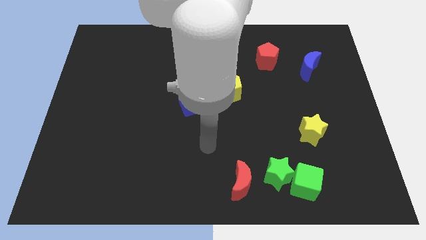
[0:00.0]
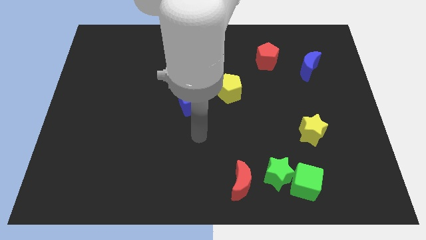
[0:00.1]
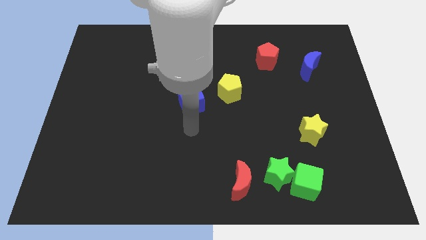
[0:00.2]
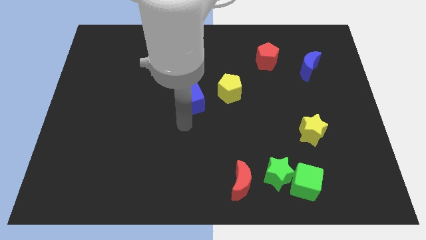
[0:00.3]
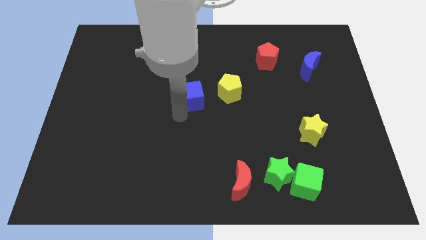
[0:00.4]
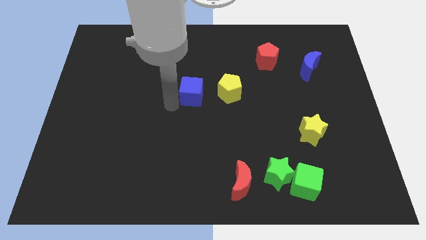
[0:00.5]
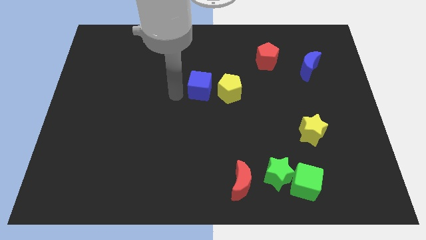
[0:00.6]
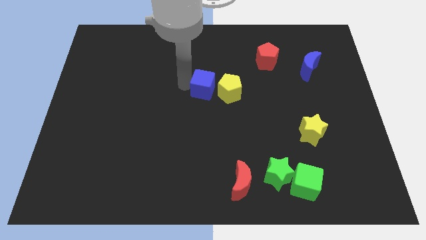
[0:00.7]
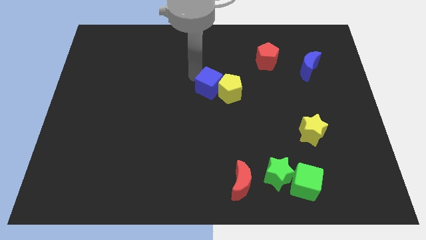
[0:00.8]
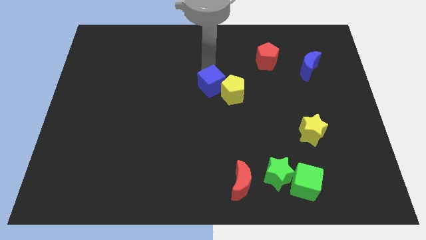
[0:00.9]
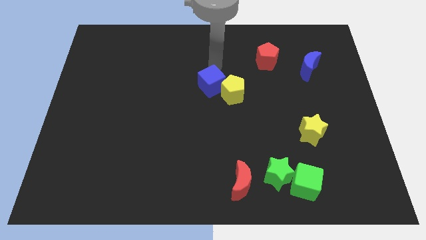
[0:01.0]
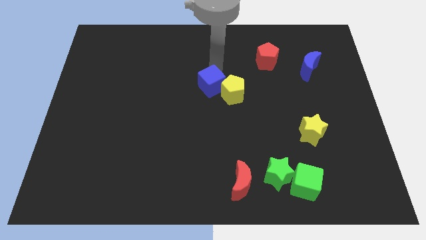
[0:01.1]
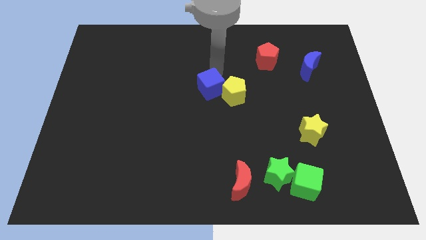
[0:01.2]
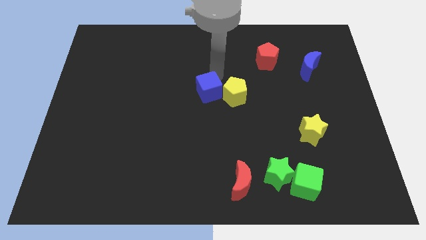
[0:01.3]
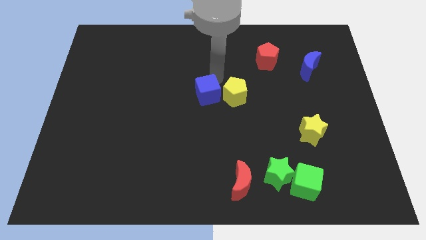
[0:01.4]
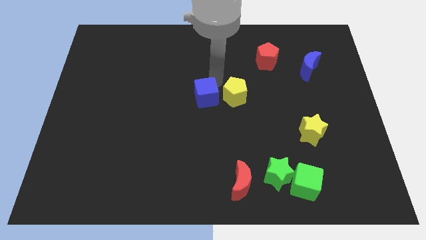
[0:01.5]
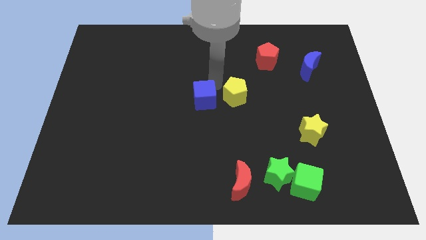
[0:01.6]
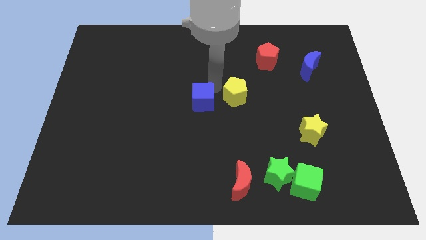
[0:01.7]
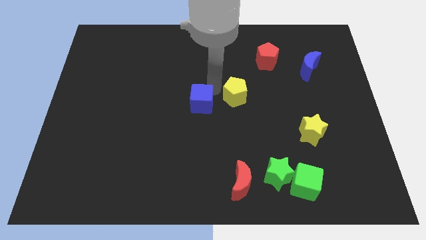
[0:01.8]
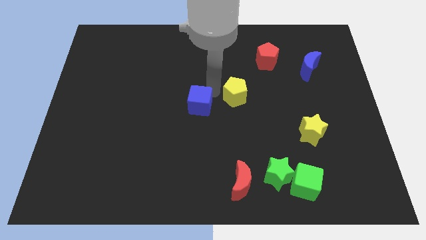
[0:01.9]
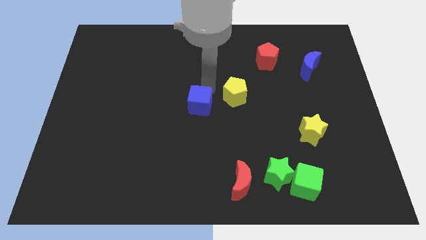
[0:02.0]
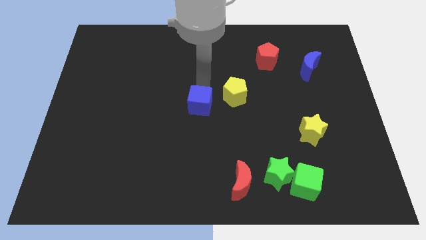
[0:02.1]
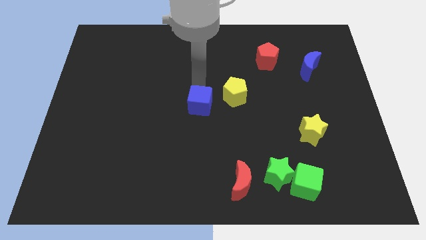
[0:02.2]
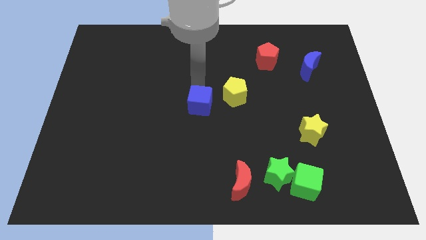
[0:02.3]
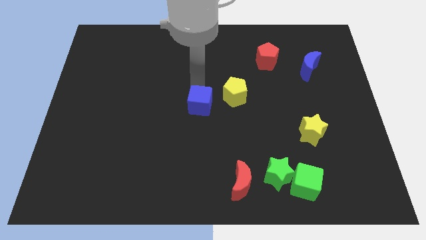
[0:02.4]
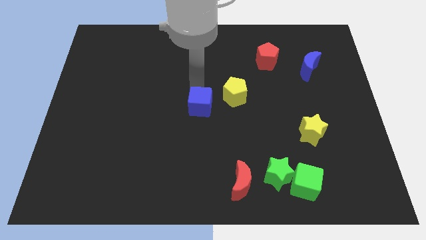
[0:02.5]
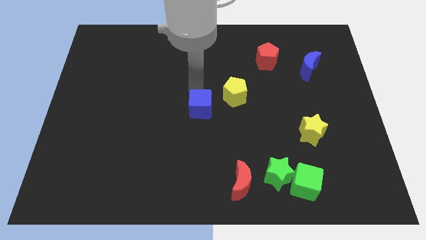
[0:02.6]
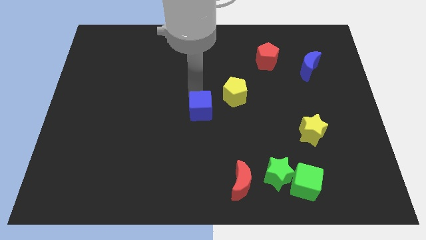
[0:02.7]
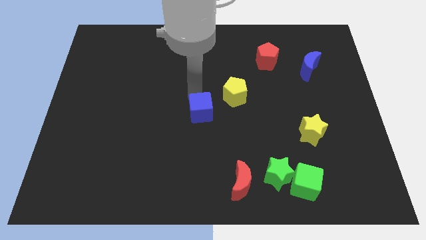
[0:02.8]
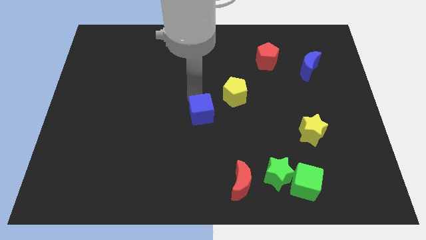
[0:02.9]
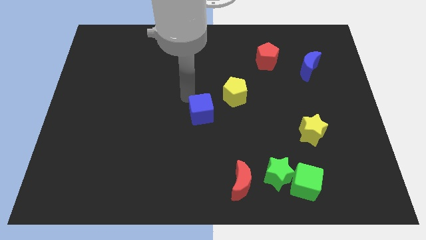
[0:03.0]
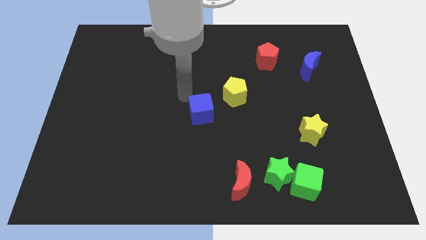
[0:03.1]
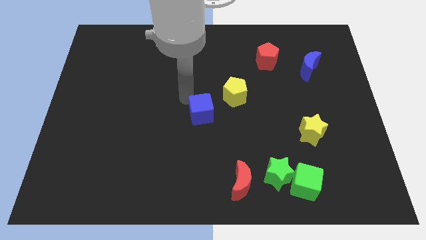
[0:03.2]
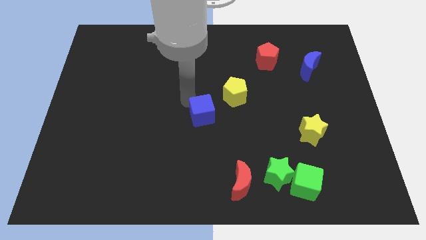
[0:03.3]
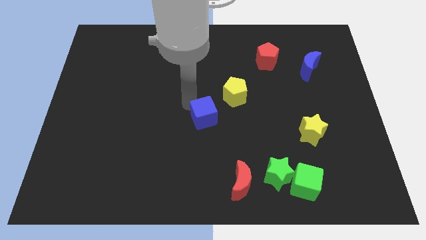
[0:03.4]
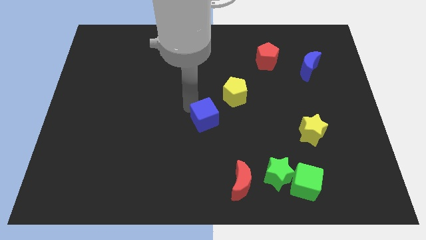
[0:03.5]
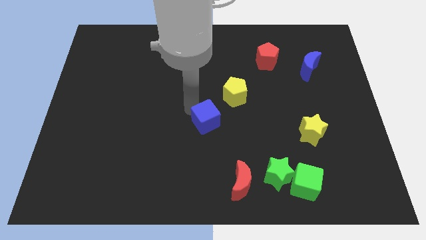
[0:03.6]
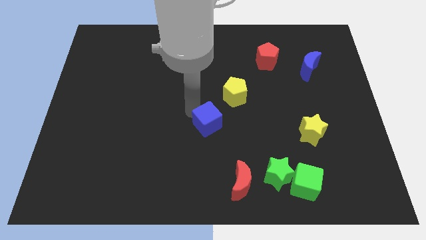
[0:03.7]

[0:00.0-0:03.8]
push the blue cube a little down and to the right diagonally

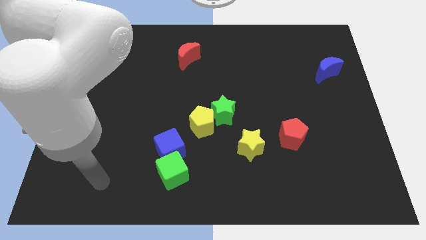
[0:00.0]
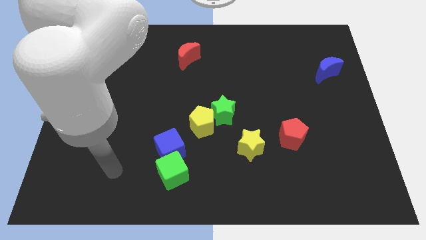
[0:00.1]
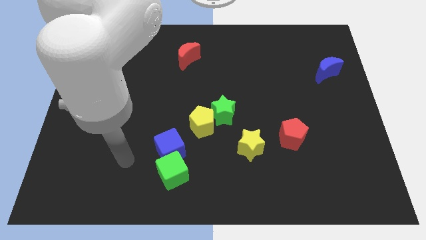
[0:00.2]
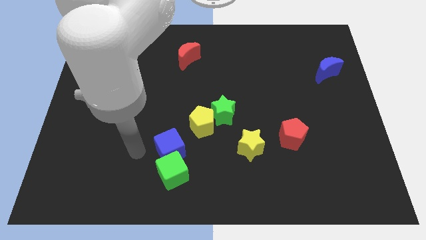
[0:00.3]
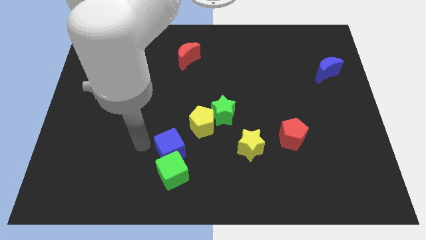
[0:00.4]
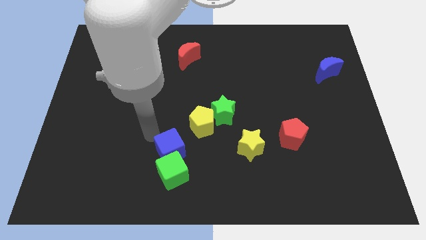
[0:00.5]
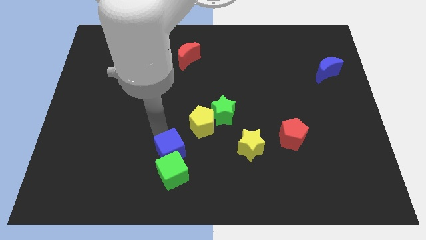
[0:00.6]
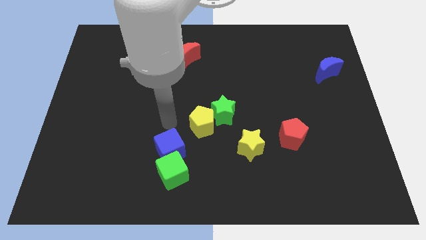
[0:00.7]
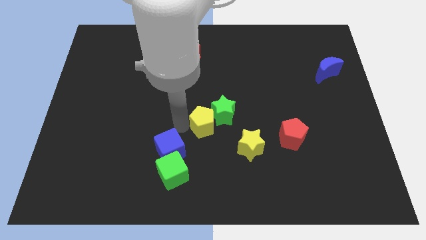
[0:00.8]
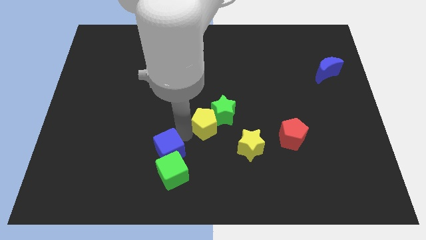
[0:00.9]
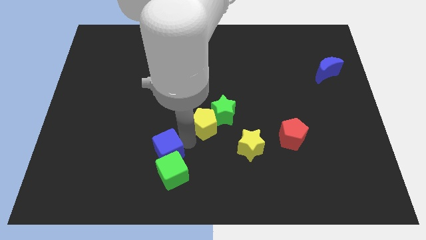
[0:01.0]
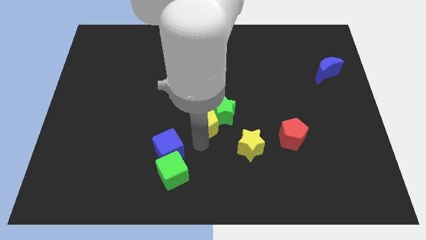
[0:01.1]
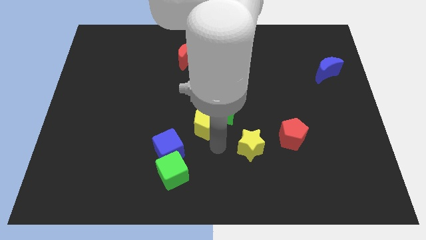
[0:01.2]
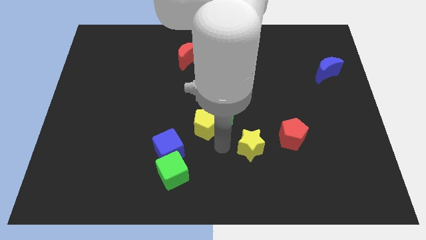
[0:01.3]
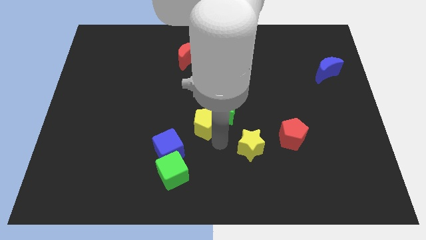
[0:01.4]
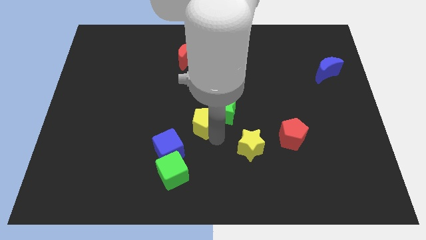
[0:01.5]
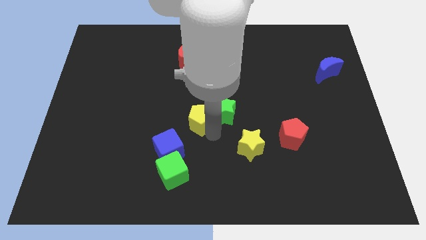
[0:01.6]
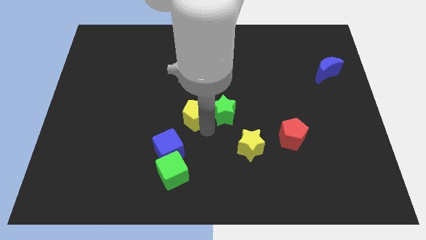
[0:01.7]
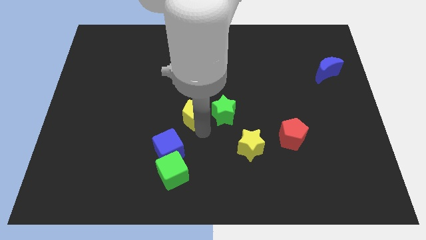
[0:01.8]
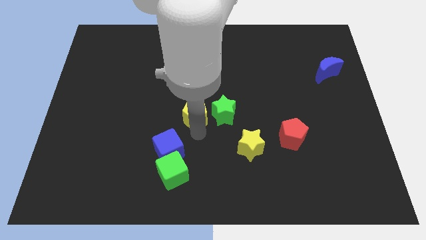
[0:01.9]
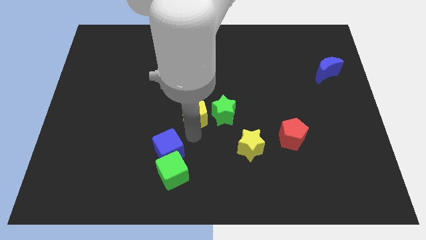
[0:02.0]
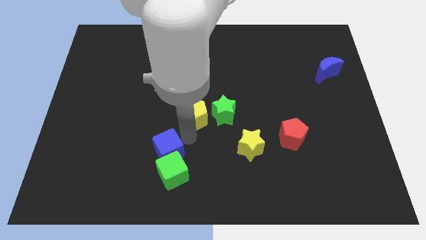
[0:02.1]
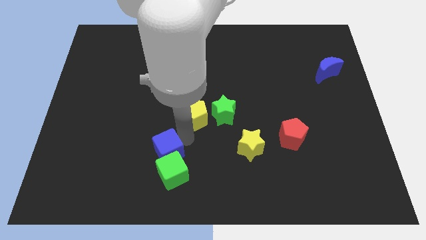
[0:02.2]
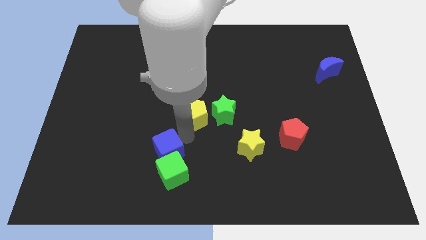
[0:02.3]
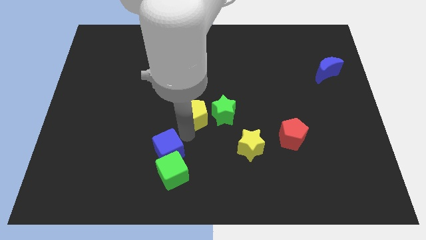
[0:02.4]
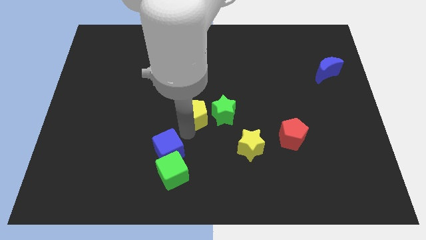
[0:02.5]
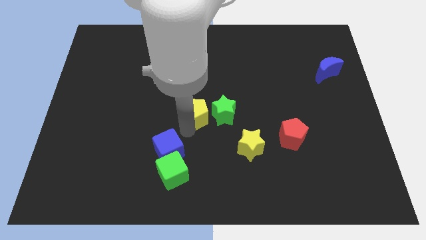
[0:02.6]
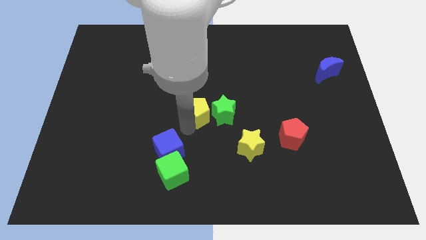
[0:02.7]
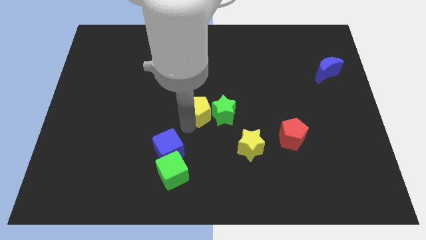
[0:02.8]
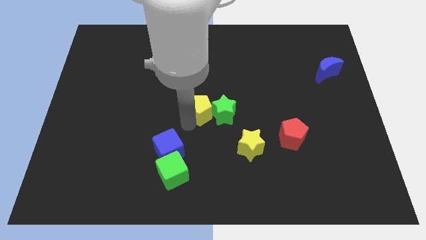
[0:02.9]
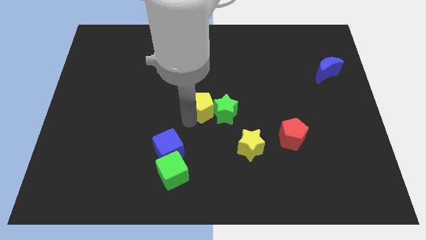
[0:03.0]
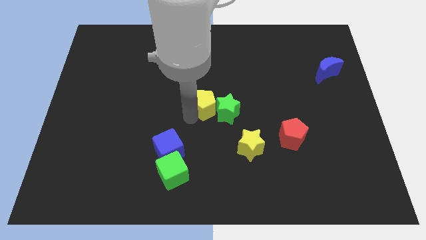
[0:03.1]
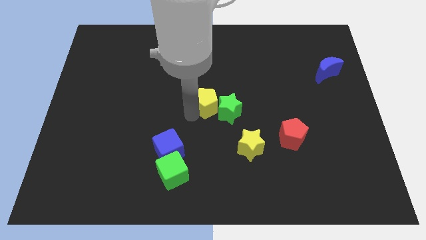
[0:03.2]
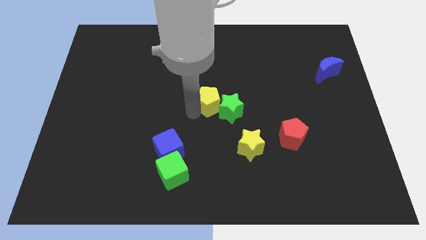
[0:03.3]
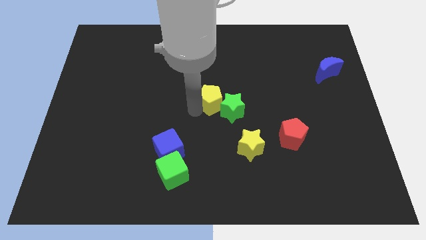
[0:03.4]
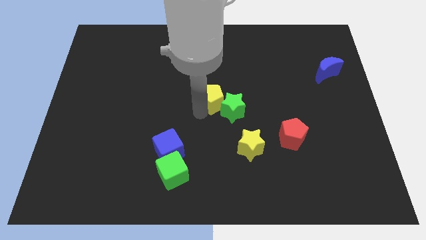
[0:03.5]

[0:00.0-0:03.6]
move the yellow pentagon upwards a bit

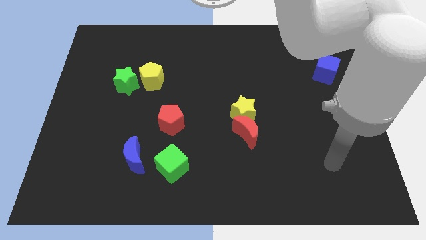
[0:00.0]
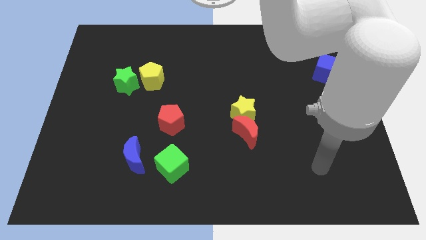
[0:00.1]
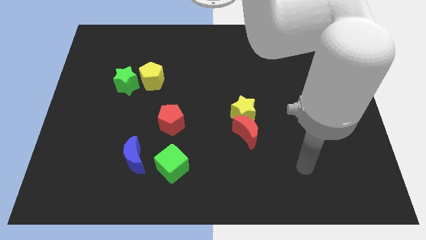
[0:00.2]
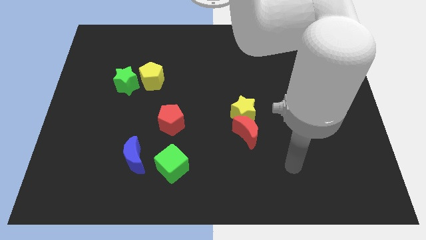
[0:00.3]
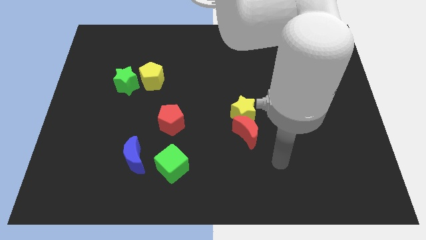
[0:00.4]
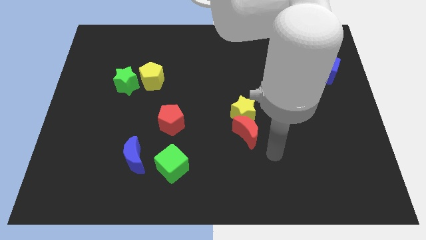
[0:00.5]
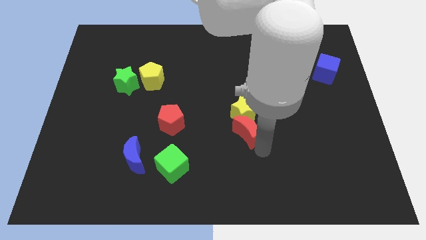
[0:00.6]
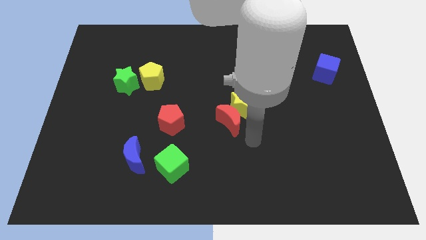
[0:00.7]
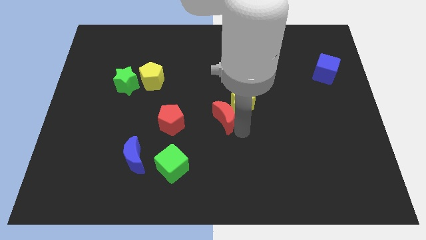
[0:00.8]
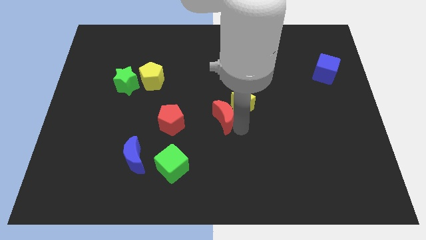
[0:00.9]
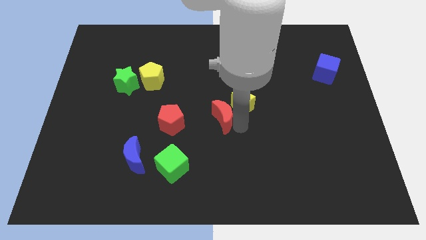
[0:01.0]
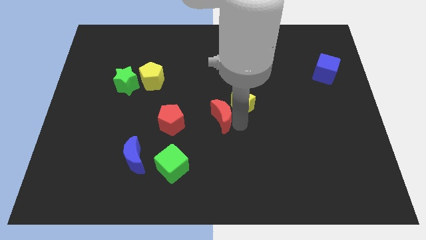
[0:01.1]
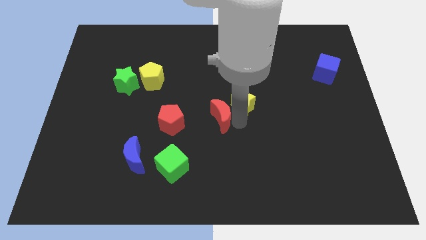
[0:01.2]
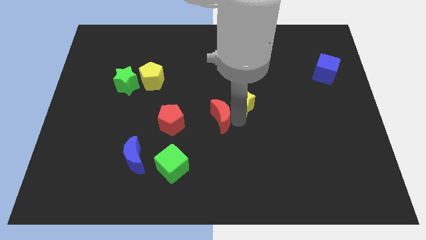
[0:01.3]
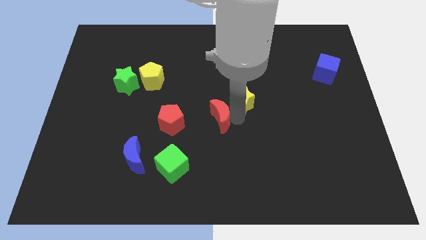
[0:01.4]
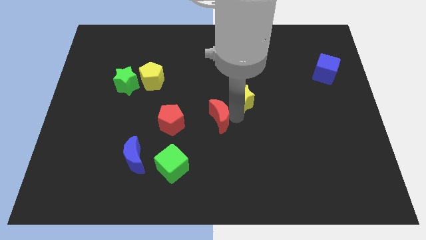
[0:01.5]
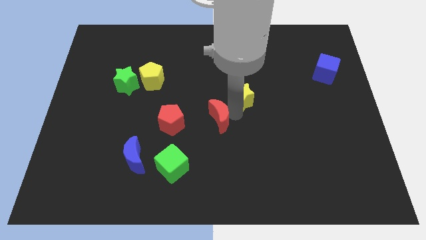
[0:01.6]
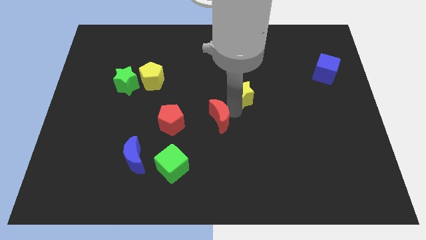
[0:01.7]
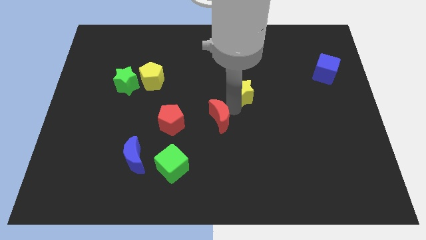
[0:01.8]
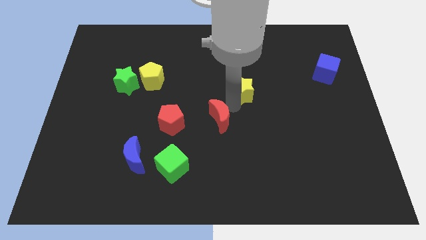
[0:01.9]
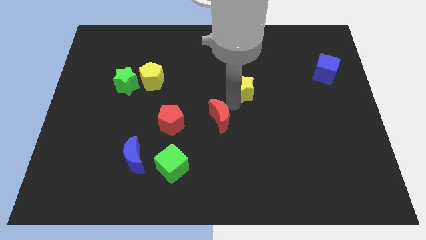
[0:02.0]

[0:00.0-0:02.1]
slightly move the yellow star upwards
